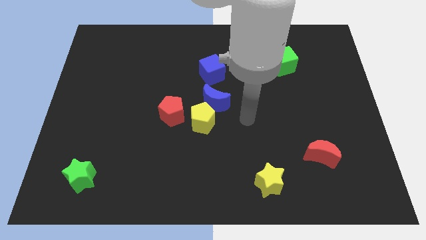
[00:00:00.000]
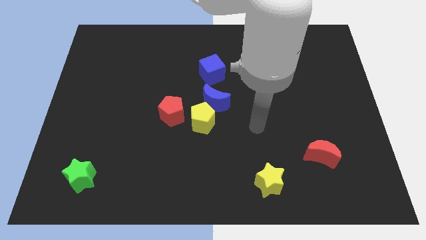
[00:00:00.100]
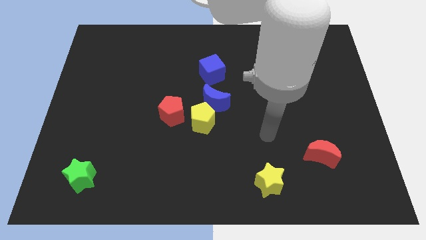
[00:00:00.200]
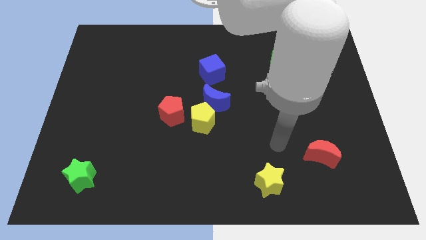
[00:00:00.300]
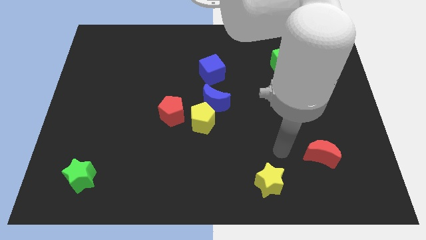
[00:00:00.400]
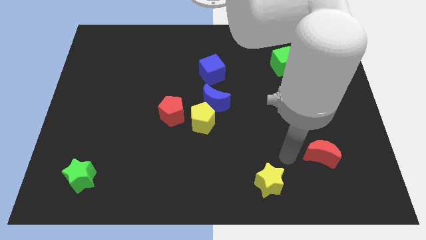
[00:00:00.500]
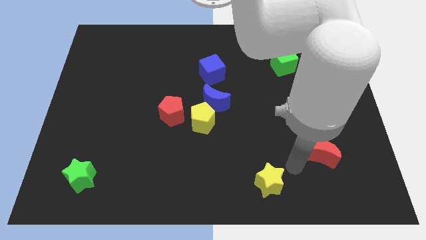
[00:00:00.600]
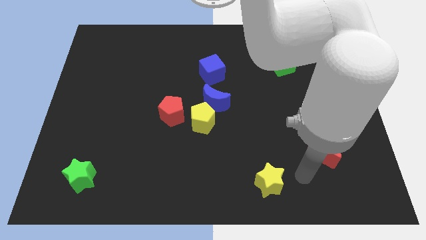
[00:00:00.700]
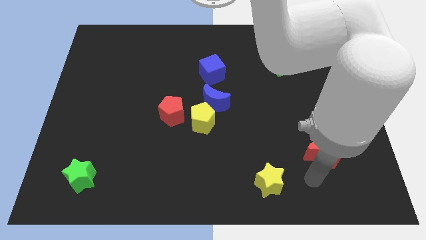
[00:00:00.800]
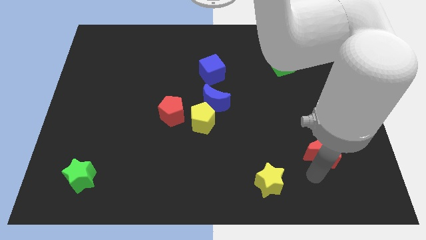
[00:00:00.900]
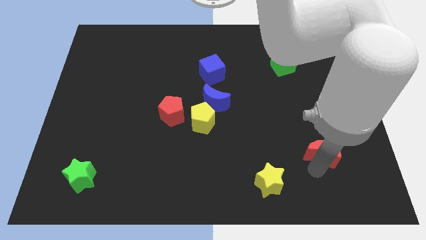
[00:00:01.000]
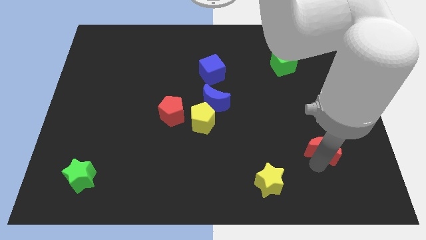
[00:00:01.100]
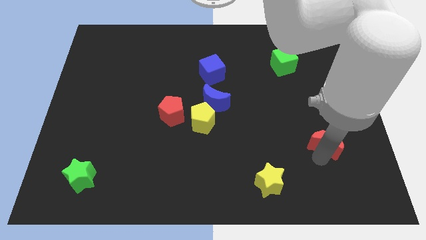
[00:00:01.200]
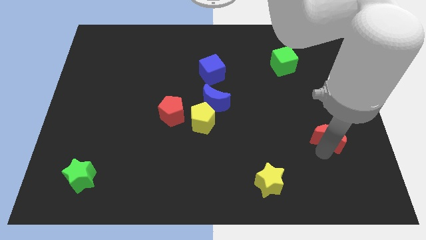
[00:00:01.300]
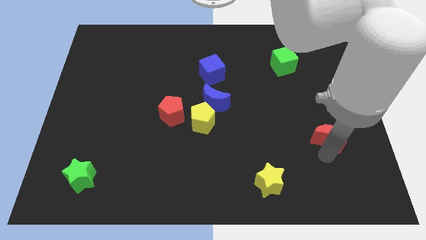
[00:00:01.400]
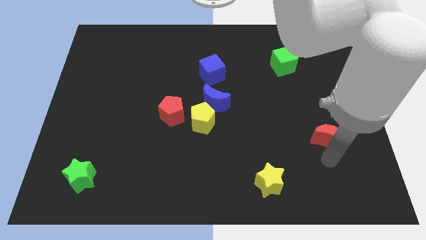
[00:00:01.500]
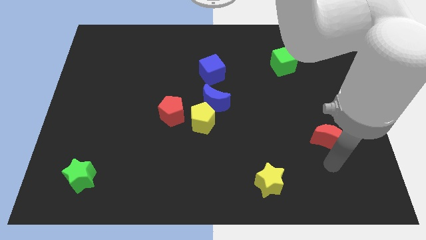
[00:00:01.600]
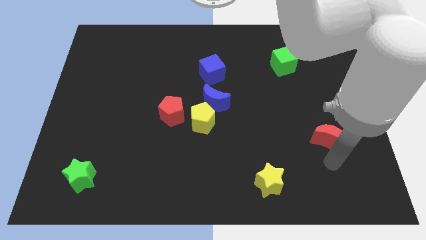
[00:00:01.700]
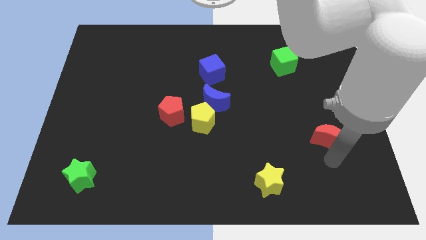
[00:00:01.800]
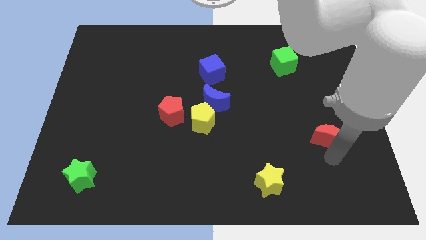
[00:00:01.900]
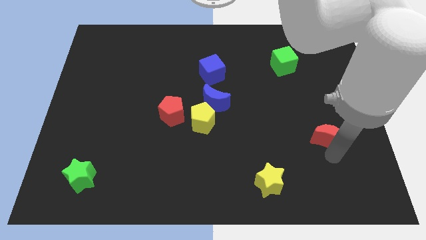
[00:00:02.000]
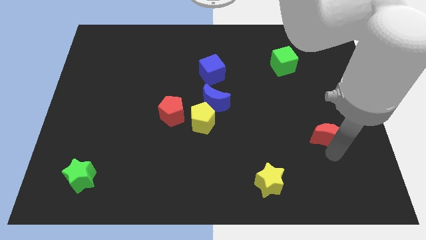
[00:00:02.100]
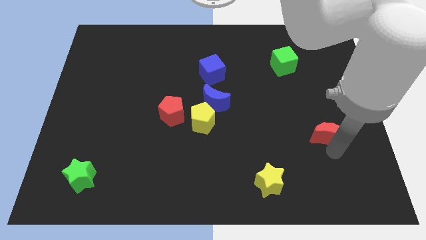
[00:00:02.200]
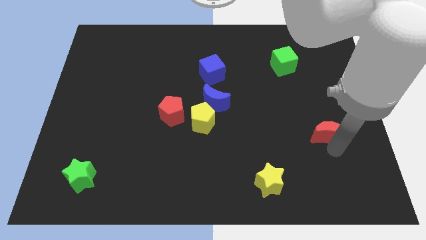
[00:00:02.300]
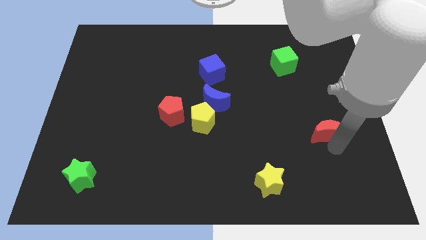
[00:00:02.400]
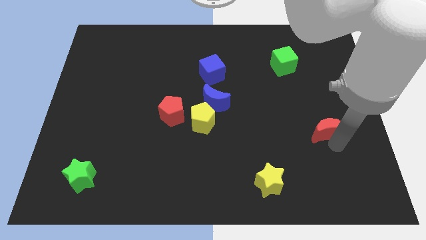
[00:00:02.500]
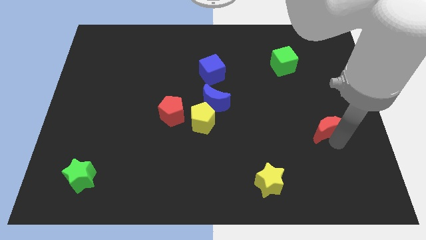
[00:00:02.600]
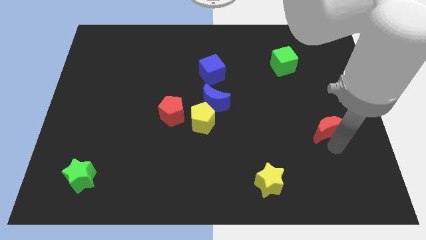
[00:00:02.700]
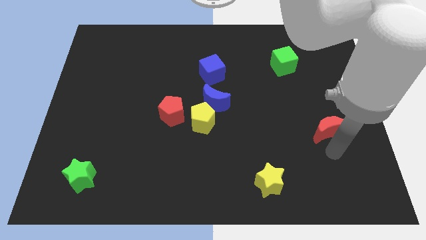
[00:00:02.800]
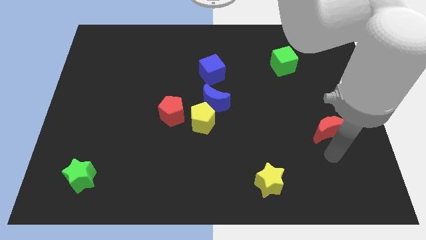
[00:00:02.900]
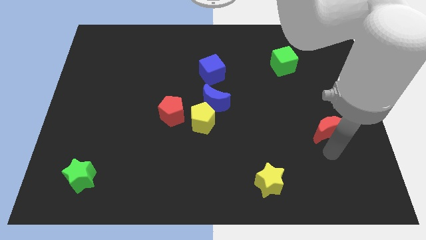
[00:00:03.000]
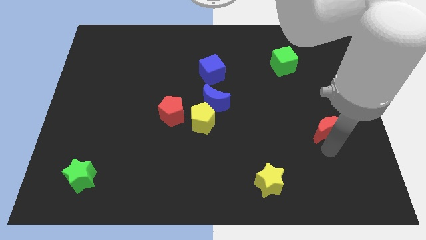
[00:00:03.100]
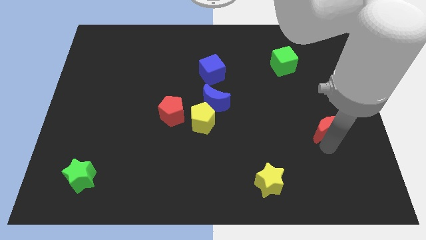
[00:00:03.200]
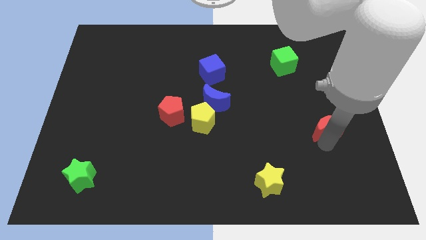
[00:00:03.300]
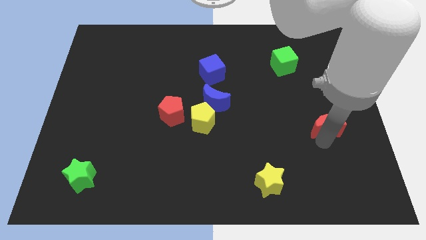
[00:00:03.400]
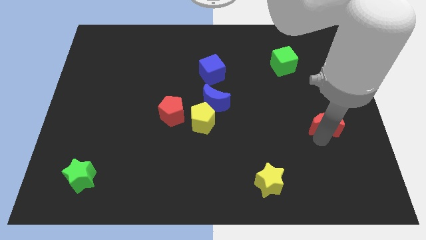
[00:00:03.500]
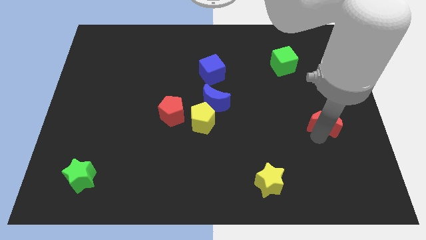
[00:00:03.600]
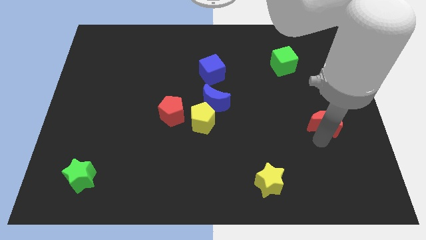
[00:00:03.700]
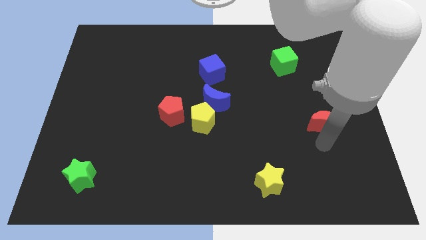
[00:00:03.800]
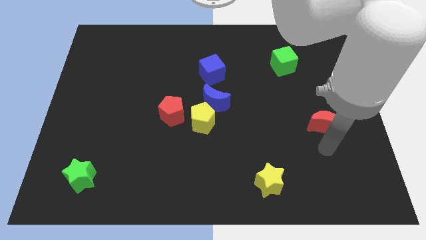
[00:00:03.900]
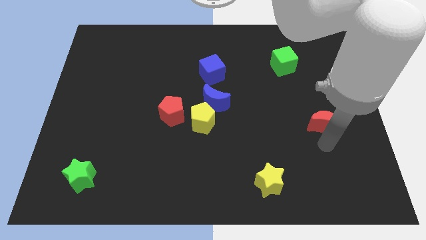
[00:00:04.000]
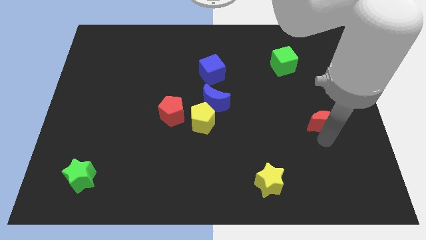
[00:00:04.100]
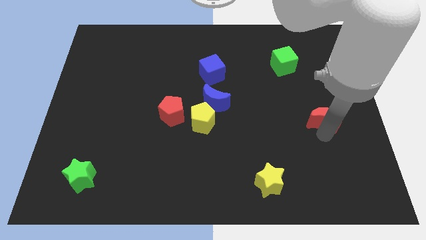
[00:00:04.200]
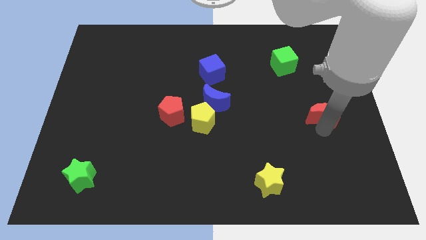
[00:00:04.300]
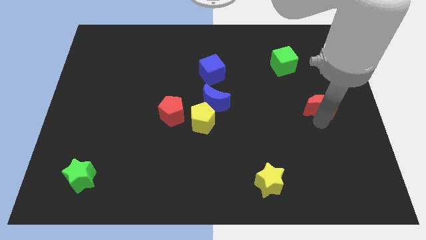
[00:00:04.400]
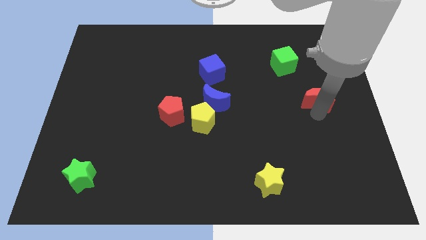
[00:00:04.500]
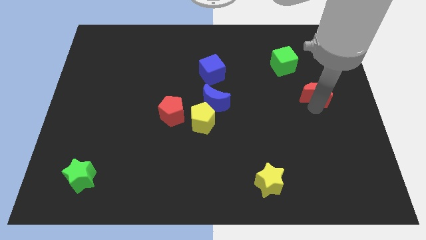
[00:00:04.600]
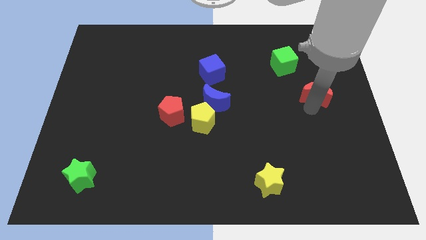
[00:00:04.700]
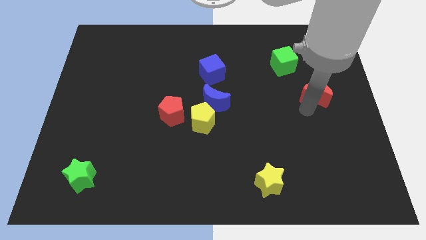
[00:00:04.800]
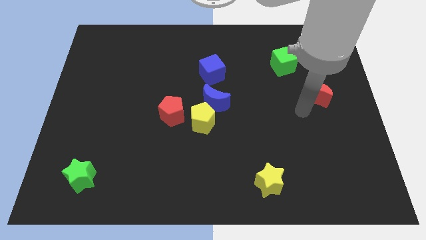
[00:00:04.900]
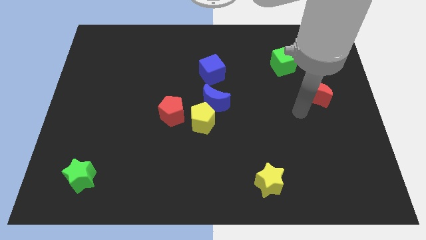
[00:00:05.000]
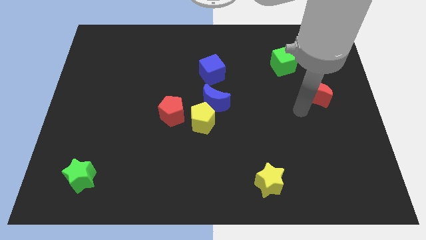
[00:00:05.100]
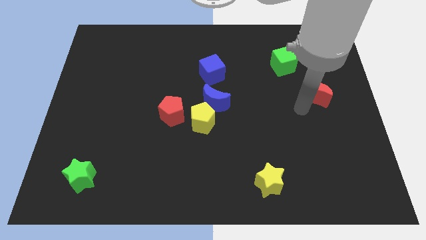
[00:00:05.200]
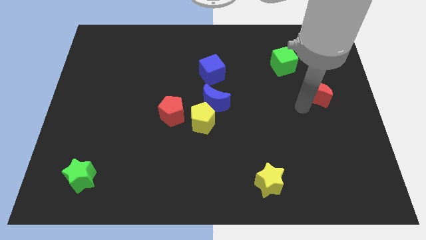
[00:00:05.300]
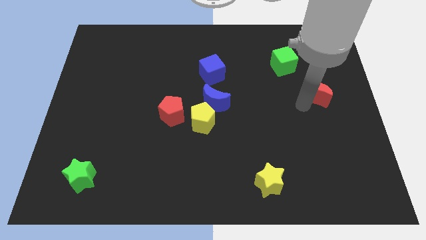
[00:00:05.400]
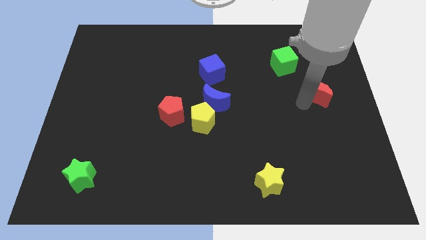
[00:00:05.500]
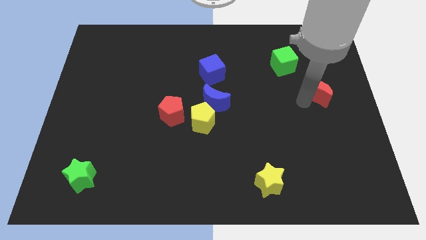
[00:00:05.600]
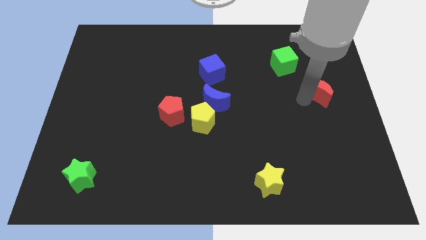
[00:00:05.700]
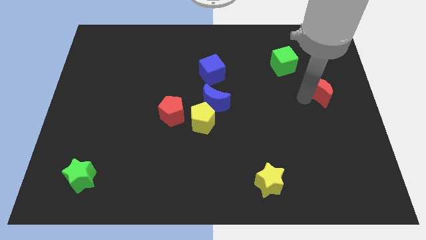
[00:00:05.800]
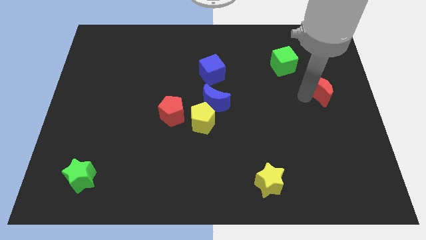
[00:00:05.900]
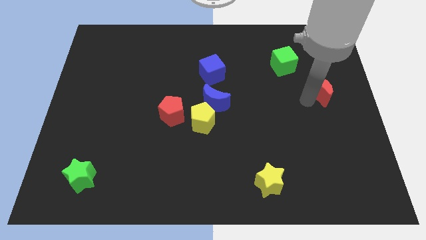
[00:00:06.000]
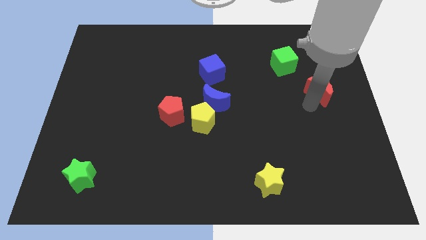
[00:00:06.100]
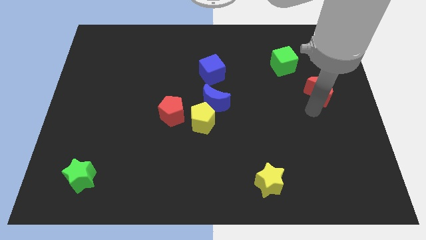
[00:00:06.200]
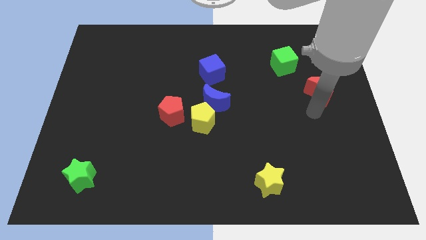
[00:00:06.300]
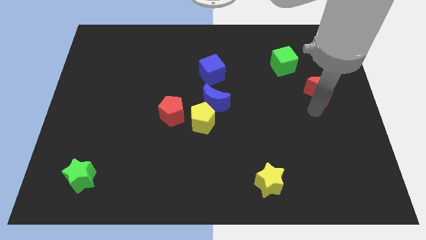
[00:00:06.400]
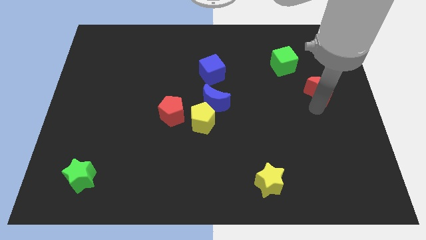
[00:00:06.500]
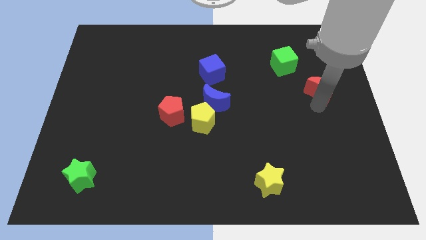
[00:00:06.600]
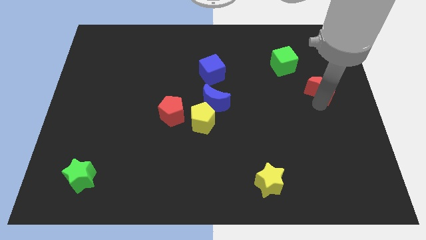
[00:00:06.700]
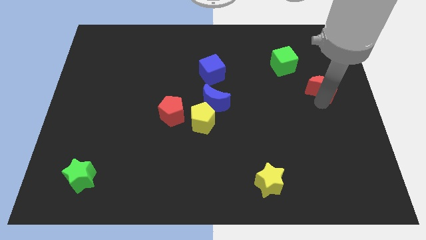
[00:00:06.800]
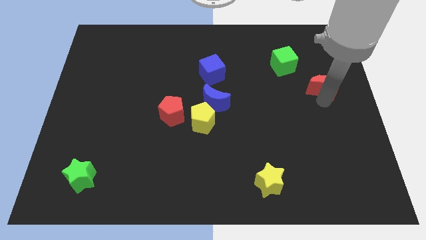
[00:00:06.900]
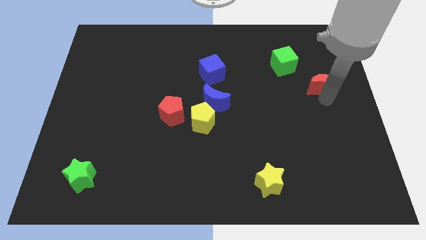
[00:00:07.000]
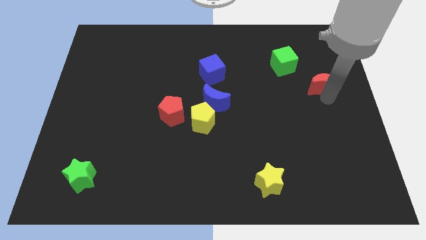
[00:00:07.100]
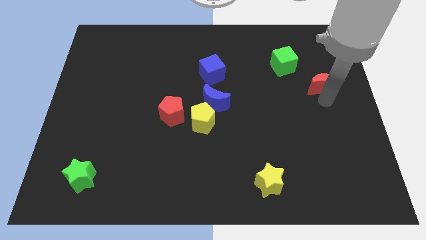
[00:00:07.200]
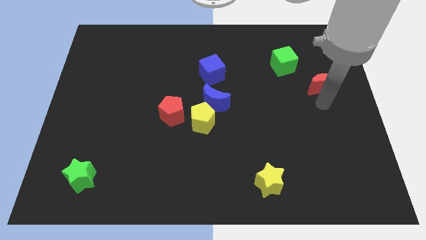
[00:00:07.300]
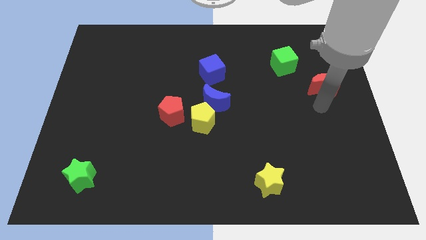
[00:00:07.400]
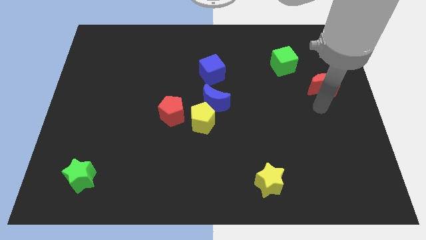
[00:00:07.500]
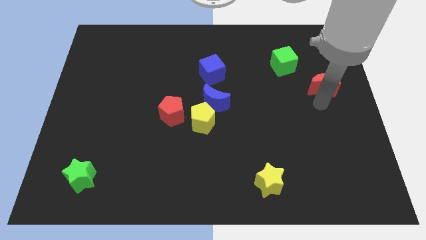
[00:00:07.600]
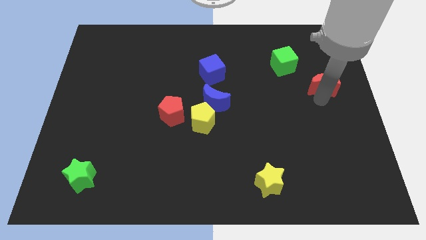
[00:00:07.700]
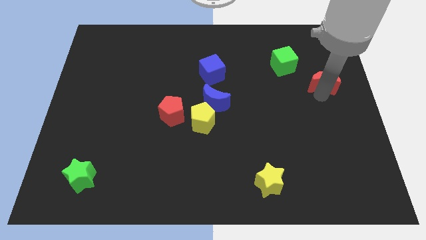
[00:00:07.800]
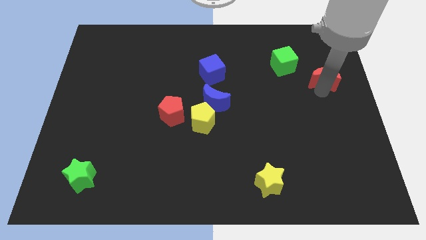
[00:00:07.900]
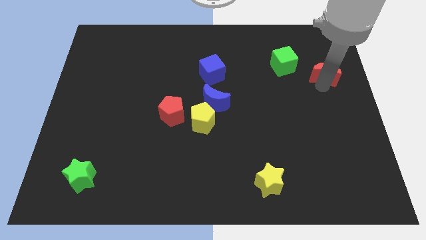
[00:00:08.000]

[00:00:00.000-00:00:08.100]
slide the red moon to the right side of the green cube
